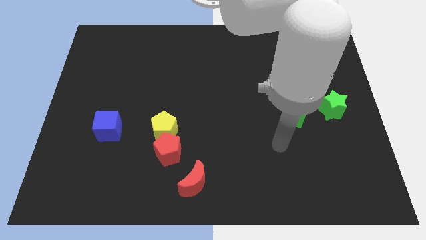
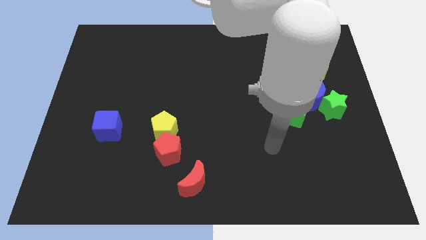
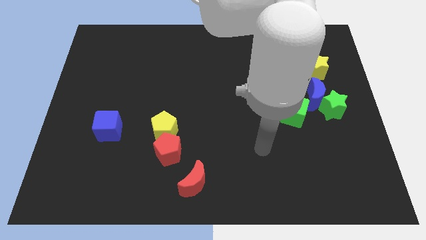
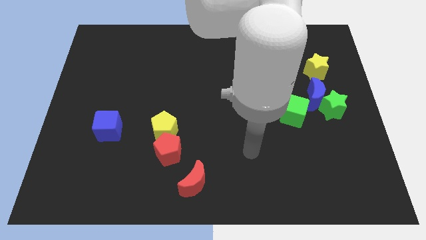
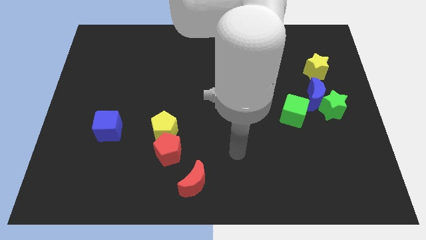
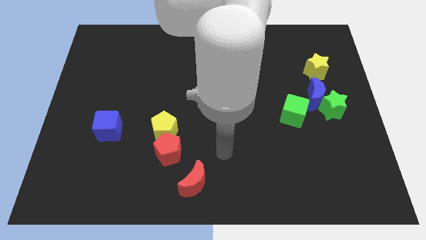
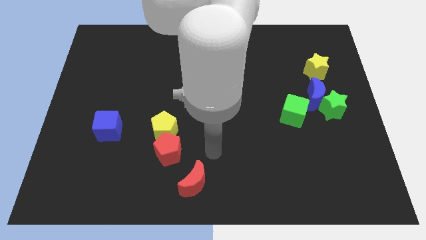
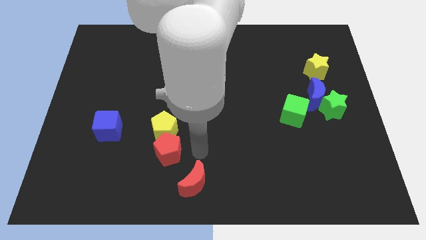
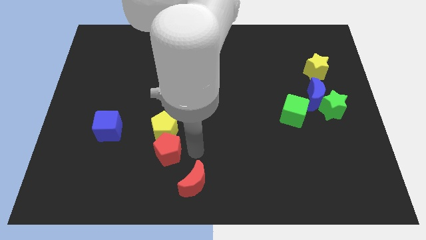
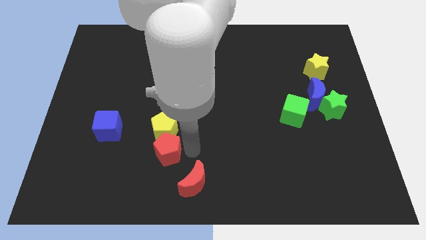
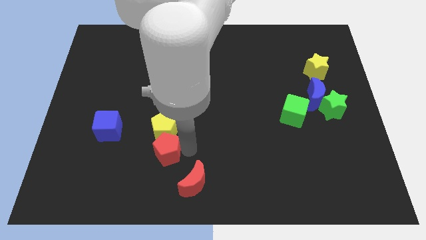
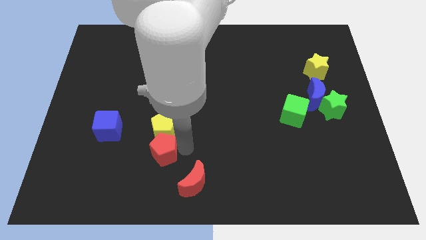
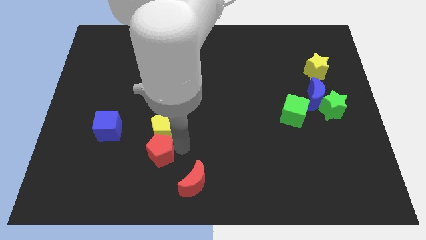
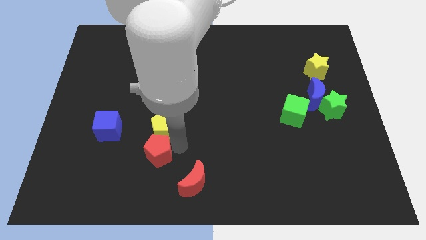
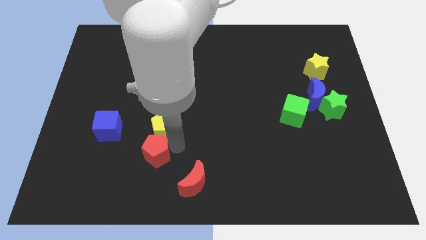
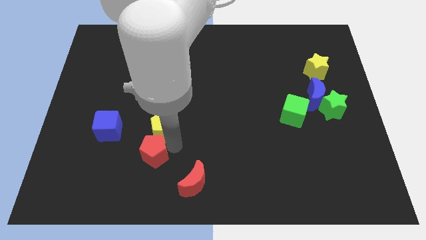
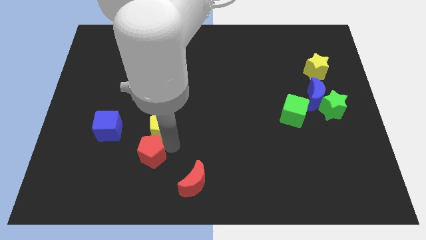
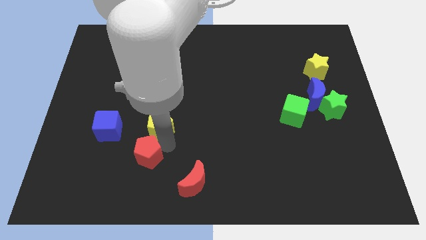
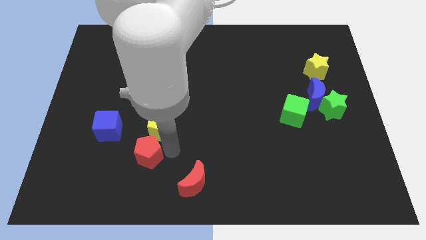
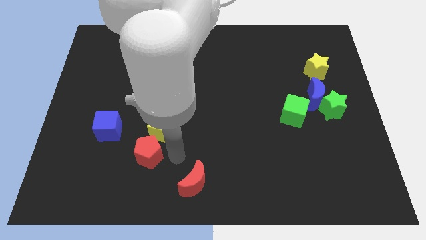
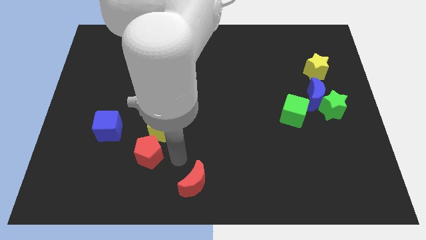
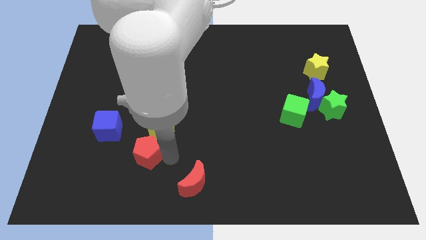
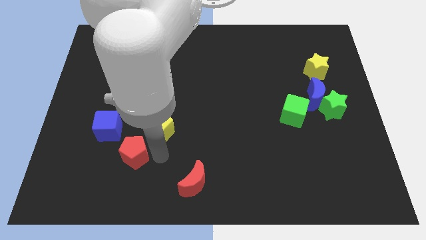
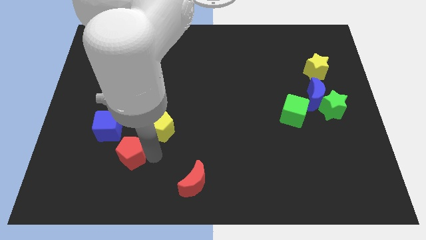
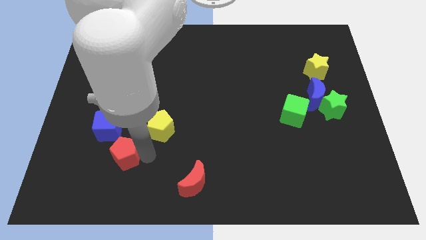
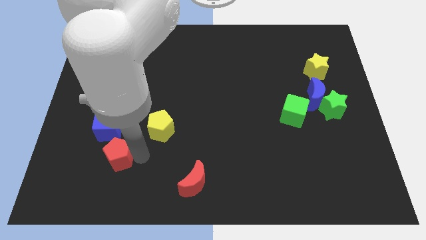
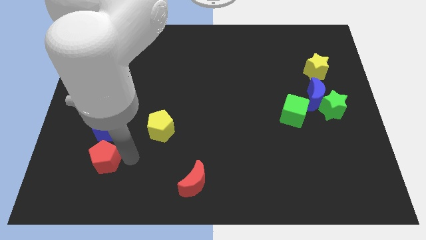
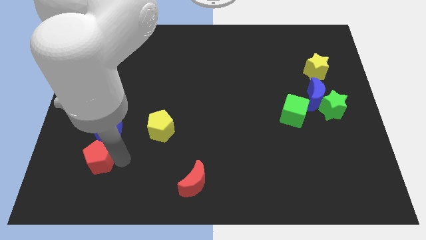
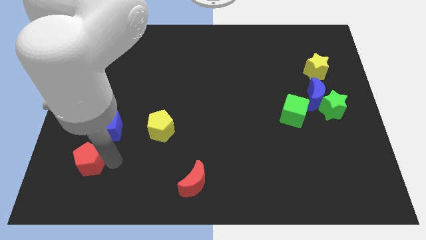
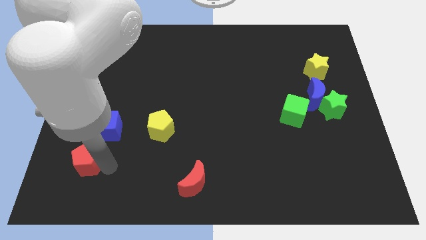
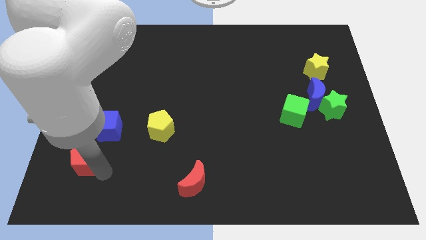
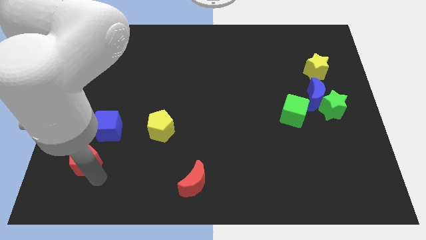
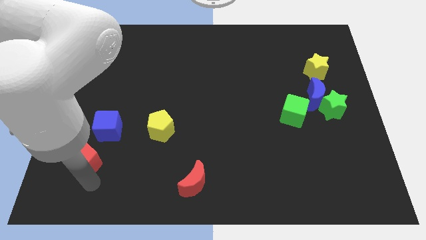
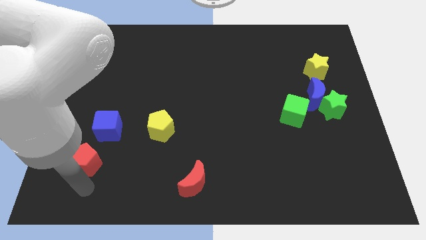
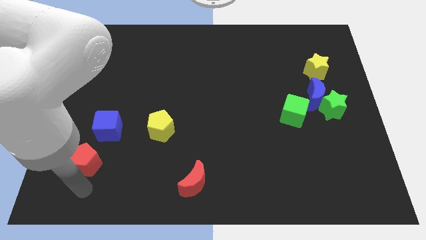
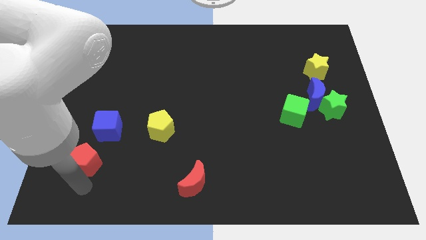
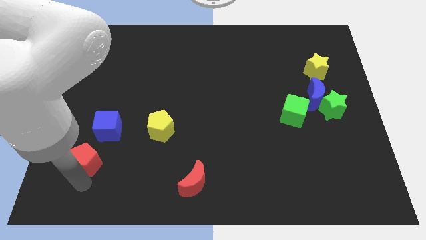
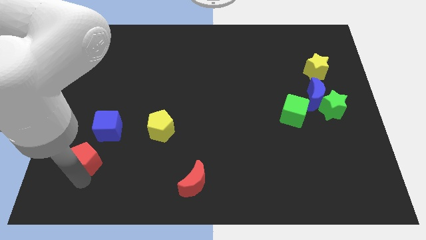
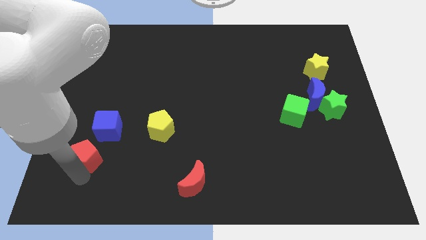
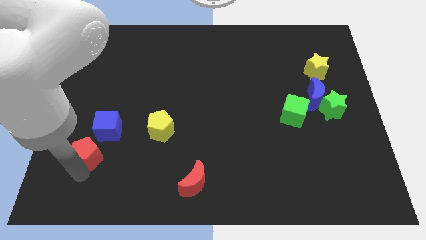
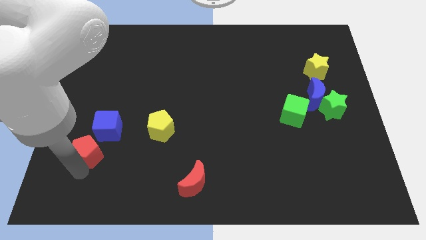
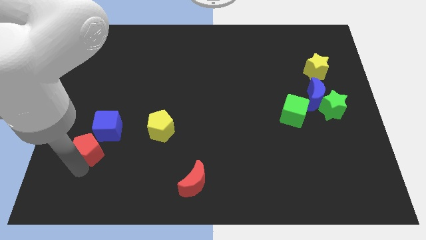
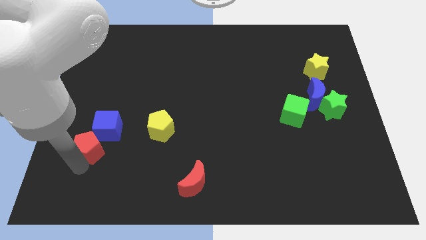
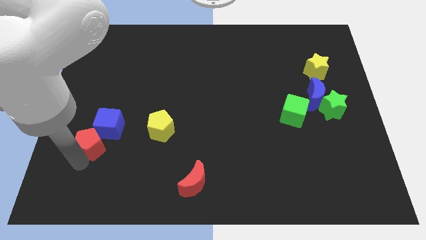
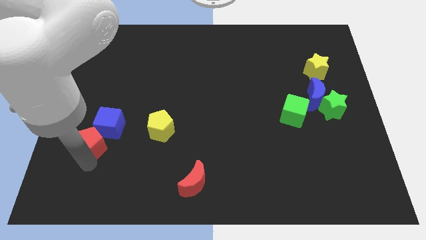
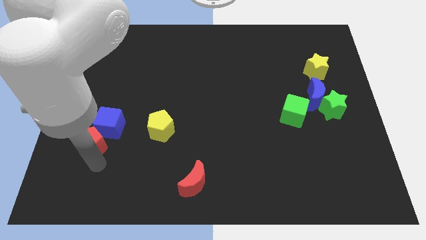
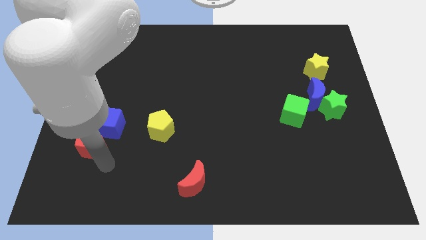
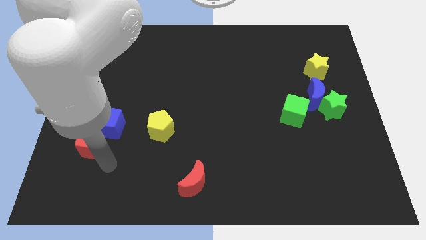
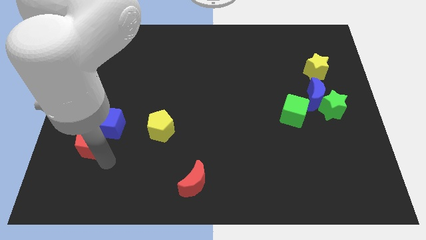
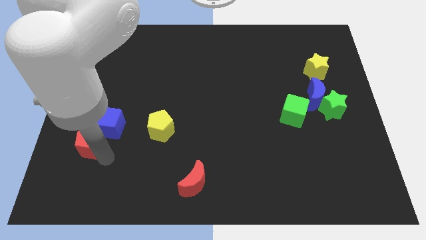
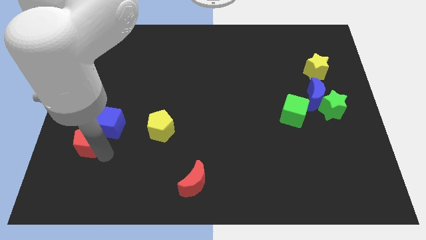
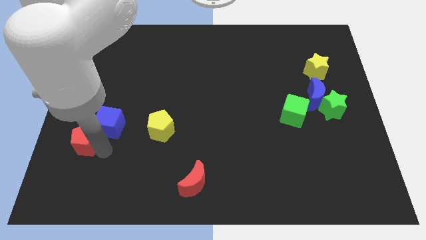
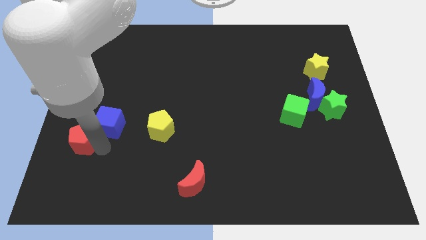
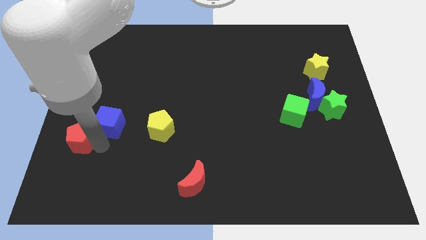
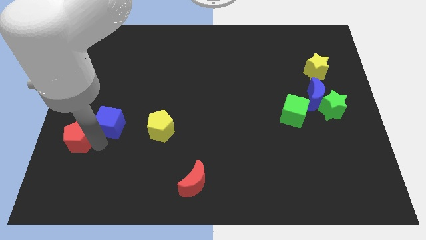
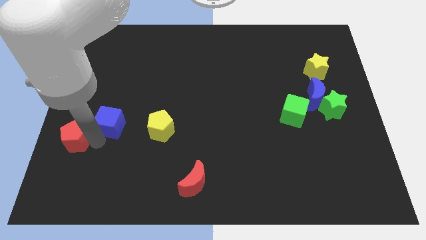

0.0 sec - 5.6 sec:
put the red pentagon to the left side of the board
